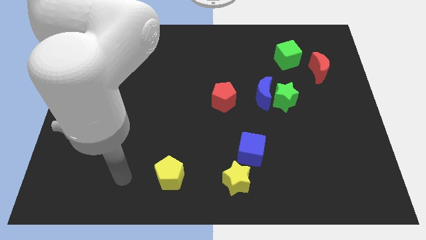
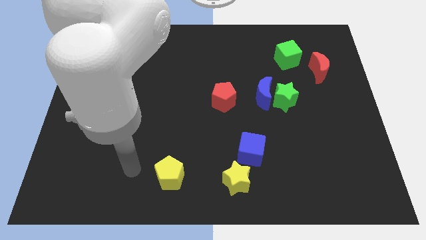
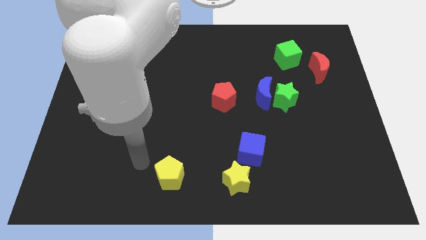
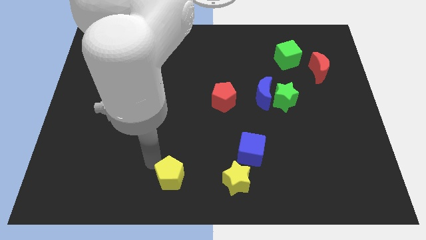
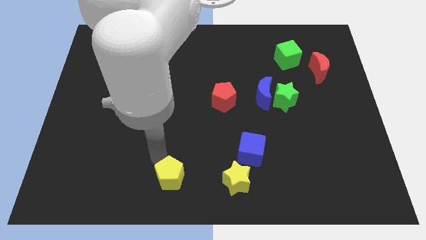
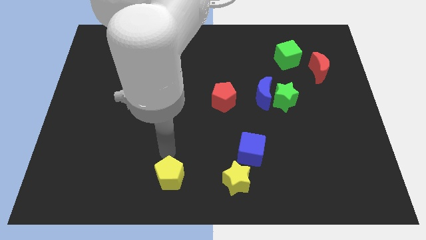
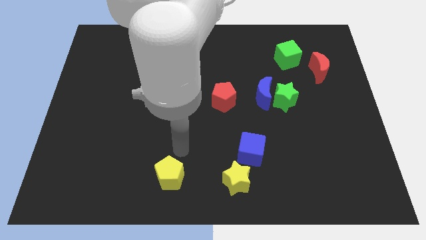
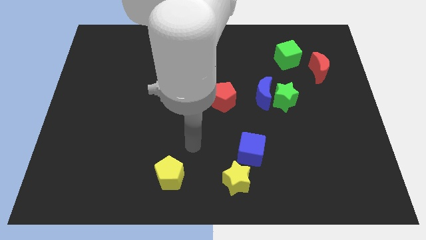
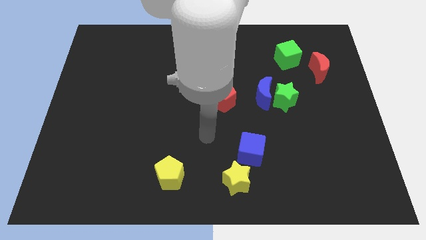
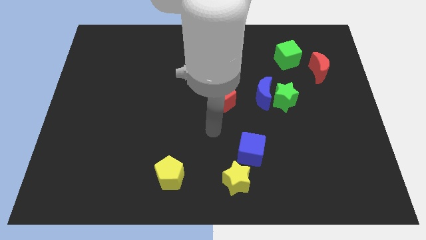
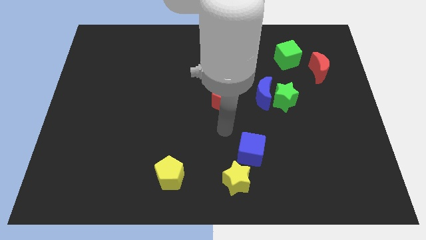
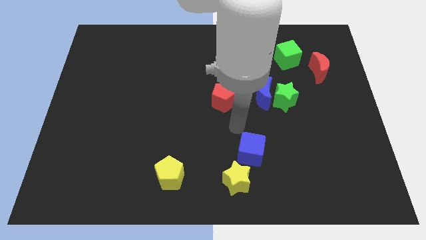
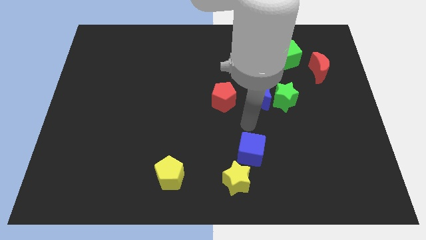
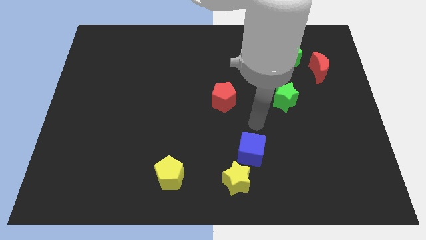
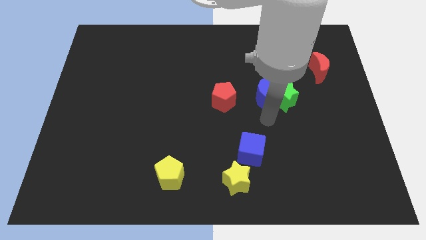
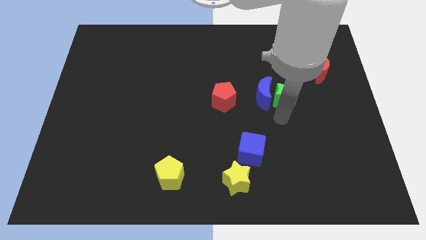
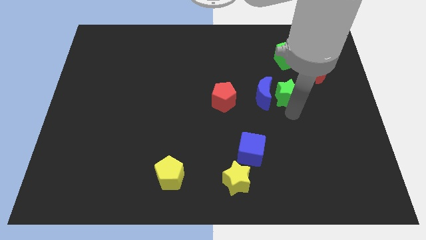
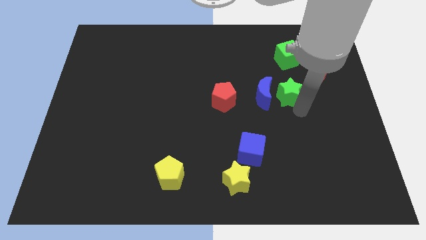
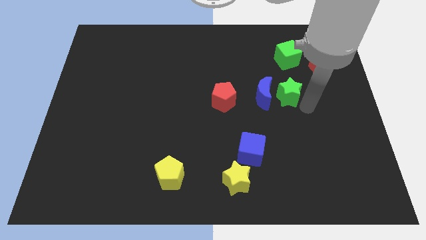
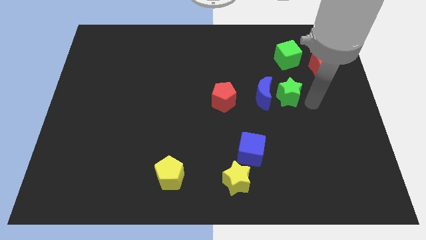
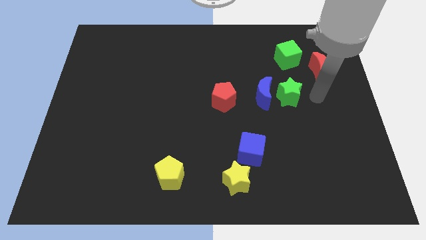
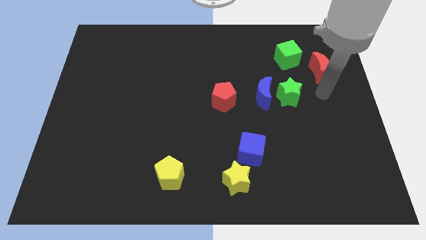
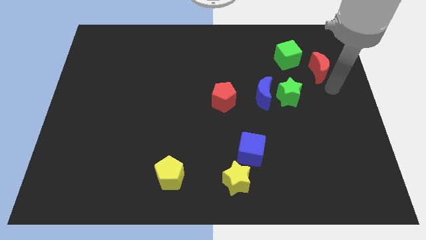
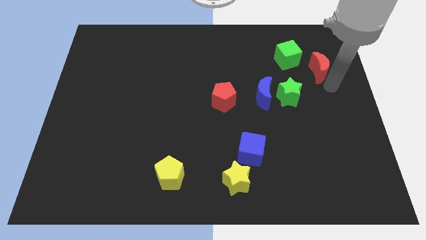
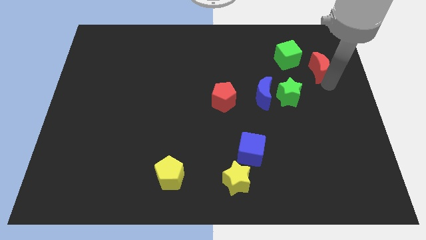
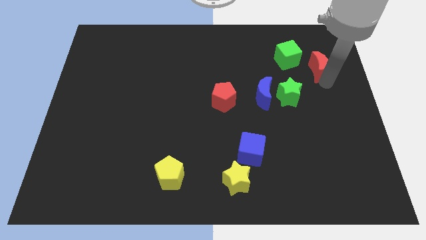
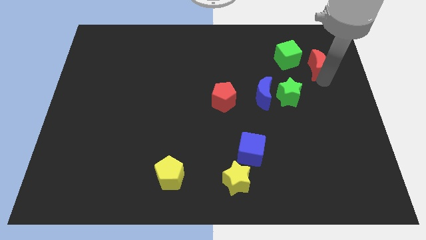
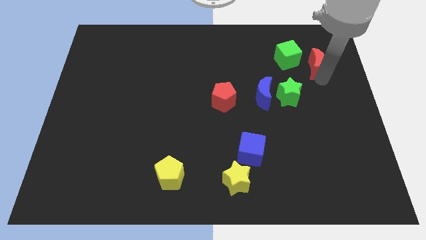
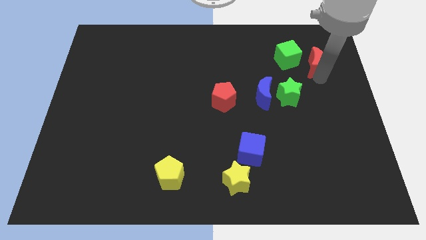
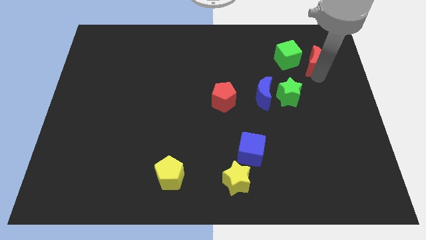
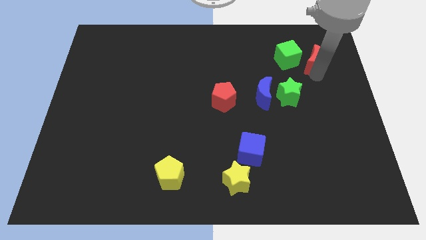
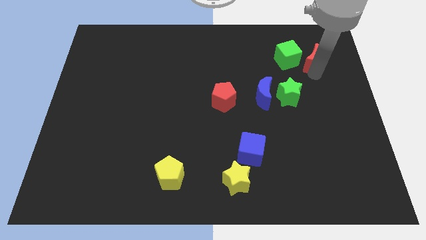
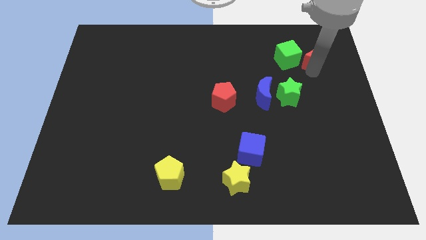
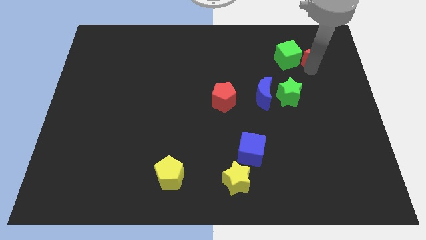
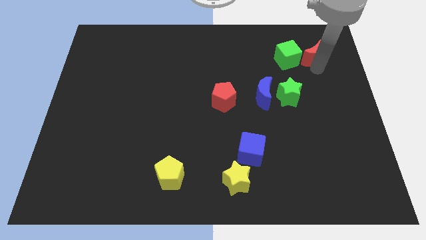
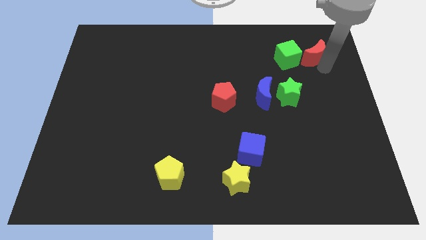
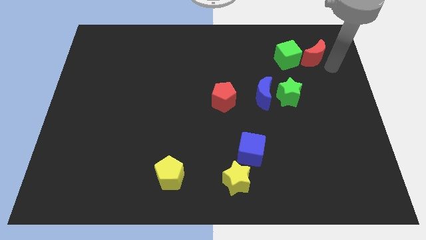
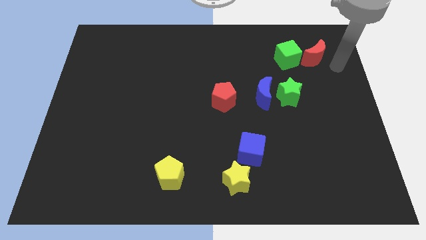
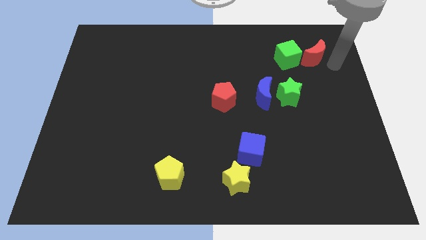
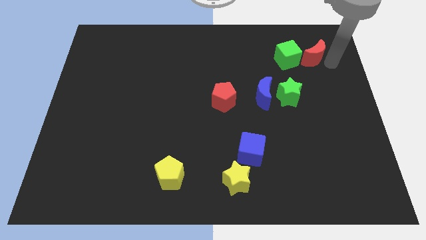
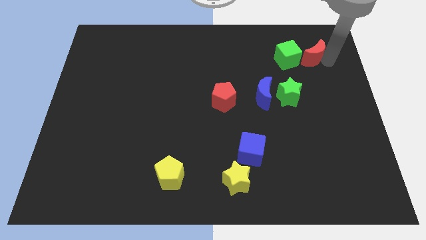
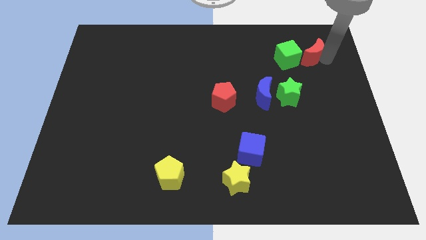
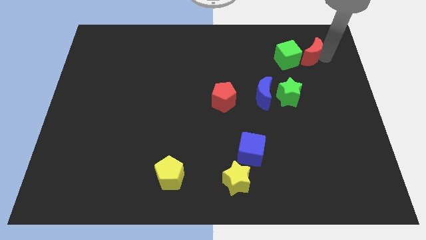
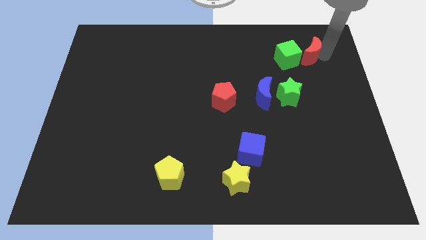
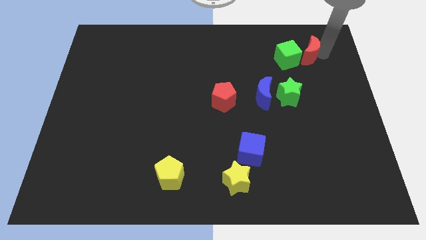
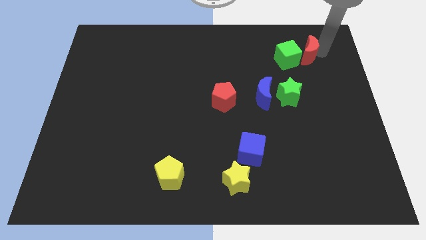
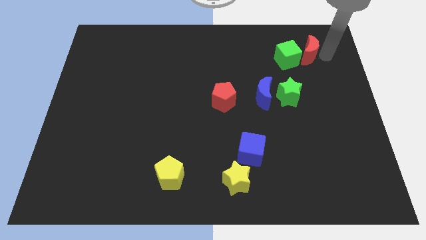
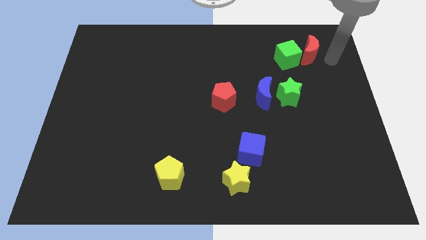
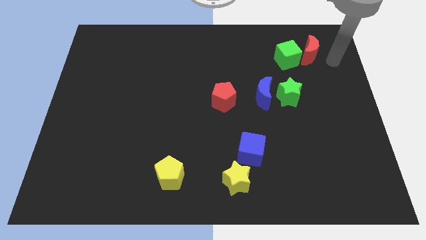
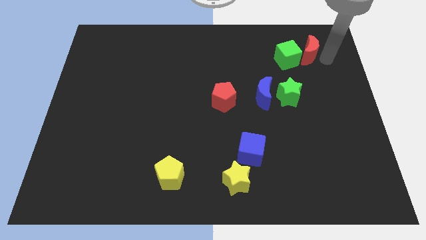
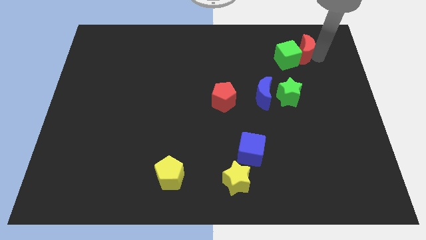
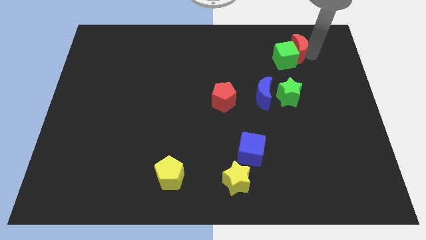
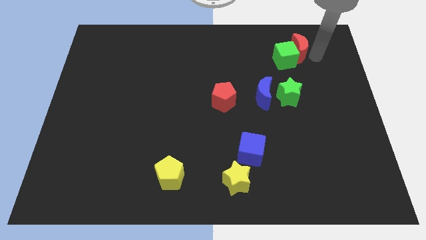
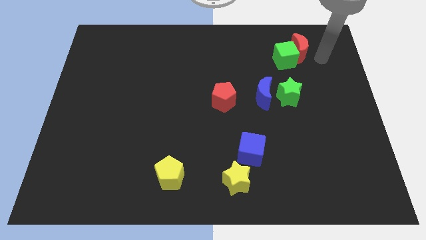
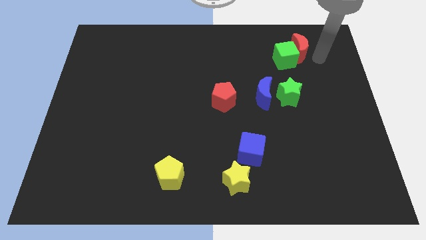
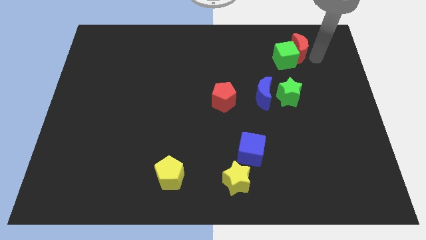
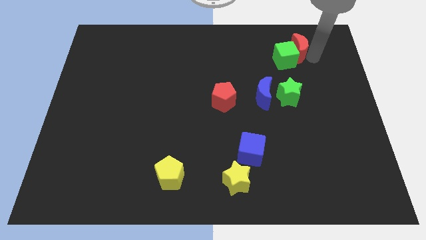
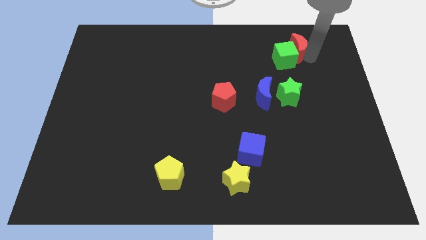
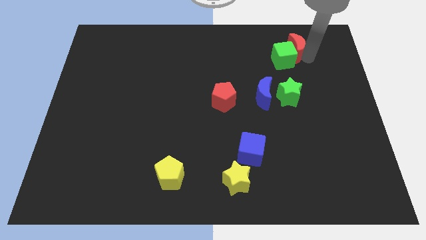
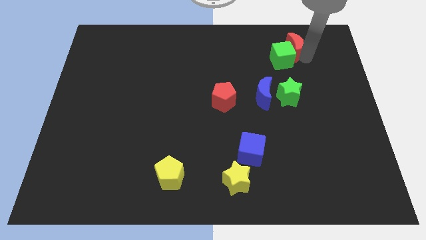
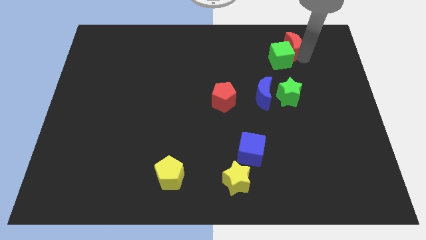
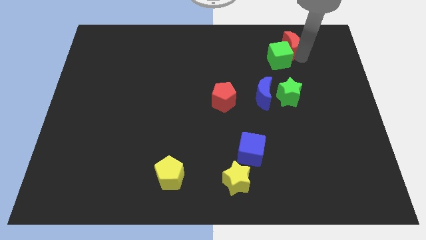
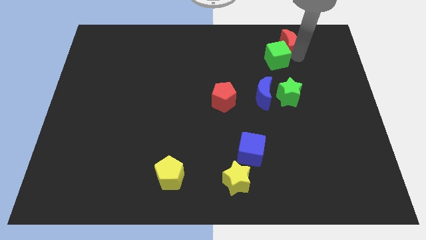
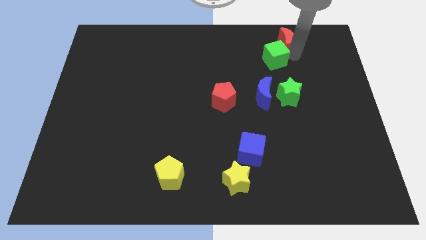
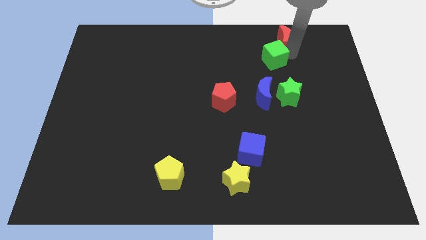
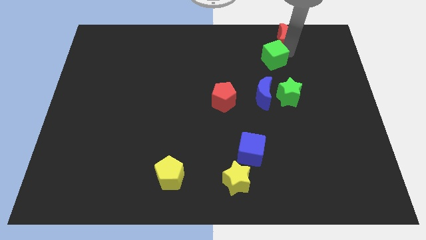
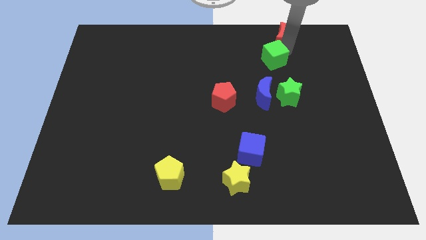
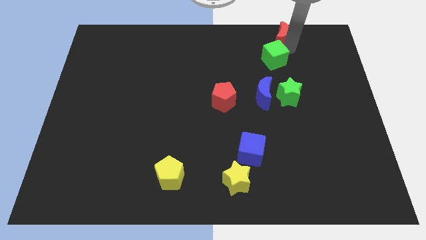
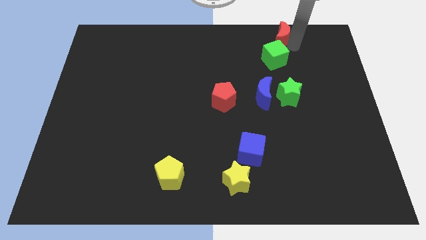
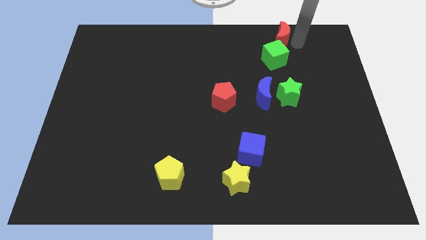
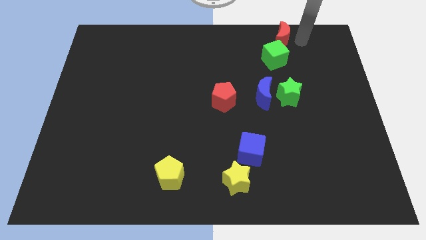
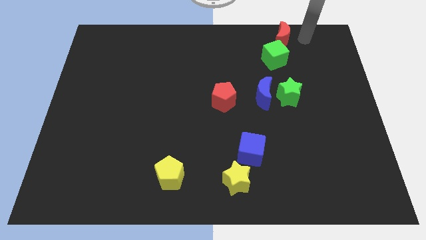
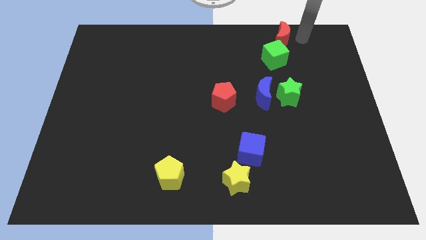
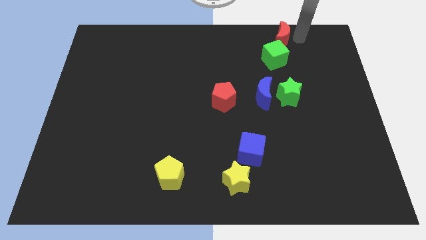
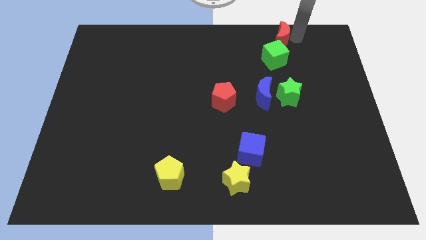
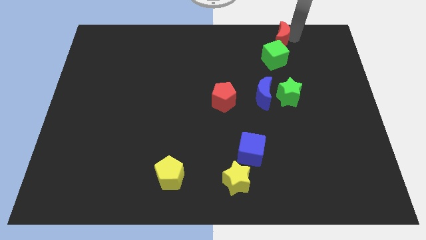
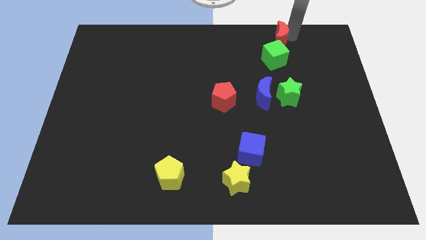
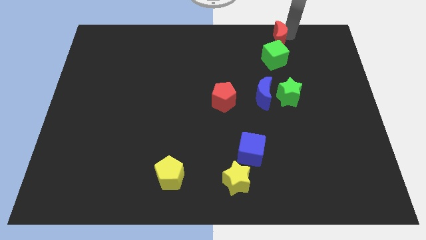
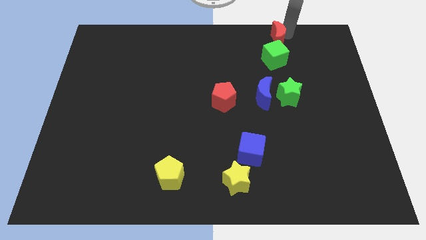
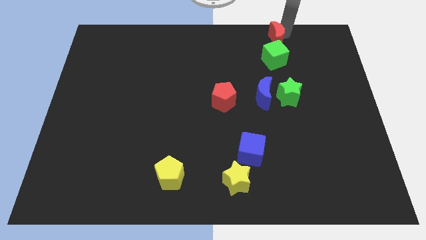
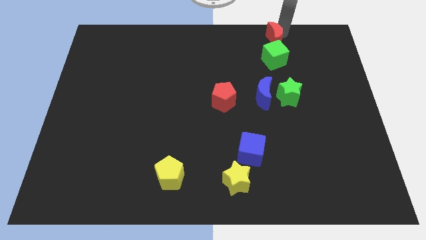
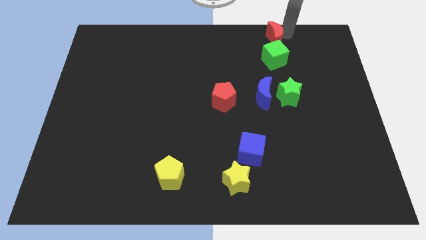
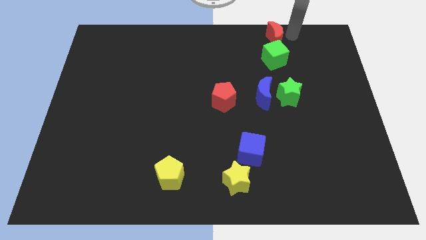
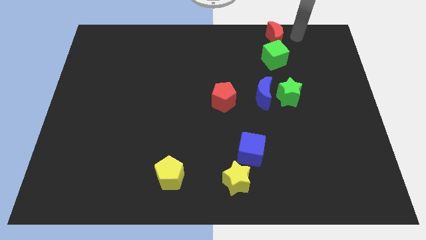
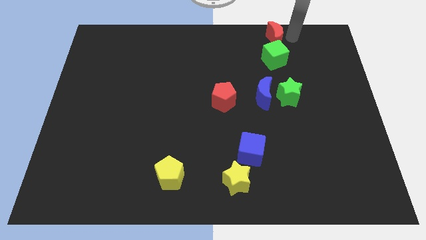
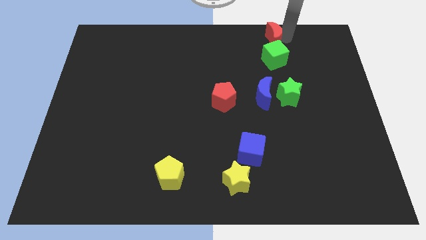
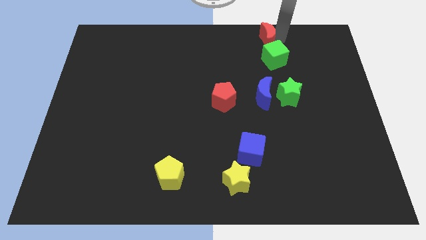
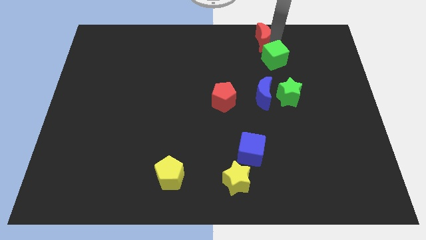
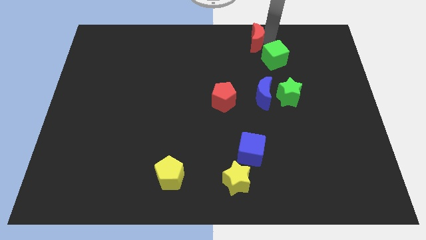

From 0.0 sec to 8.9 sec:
put the red moon to the towards your base
